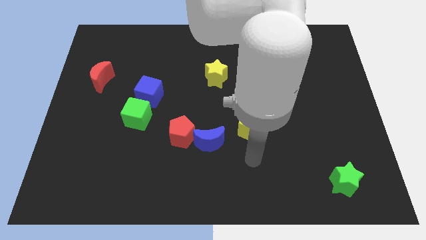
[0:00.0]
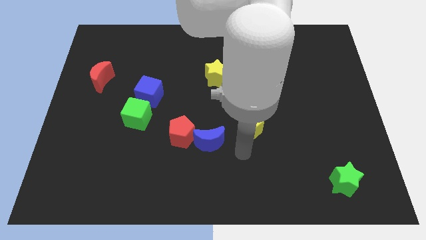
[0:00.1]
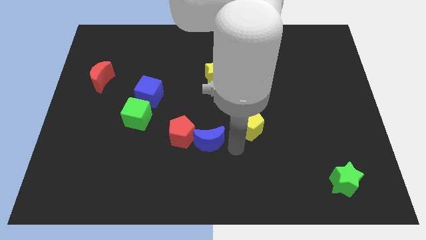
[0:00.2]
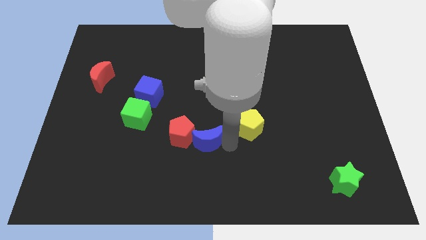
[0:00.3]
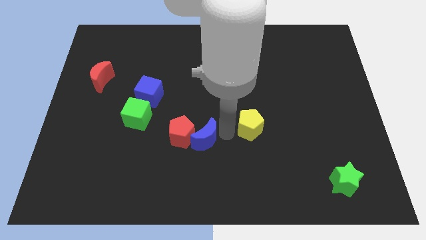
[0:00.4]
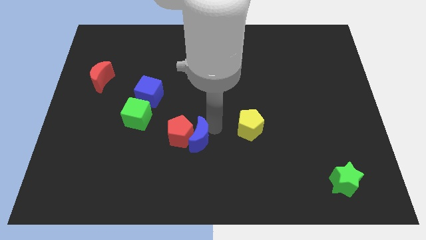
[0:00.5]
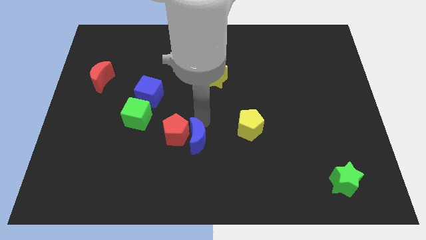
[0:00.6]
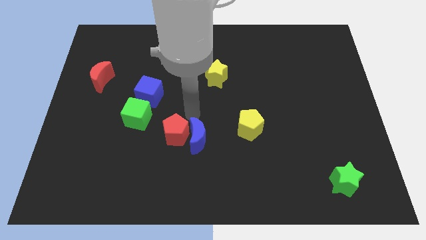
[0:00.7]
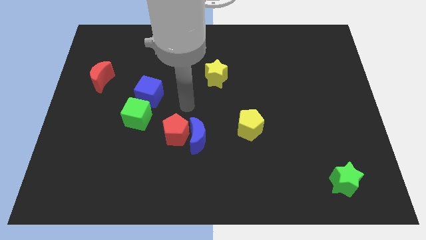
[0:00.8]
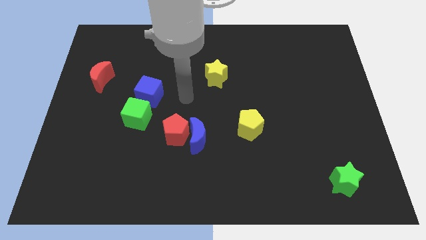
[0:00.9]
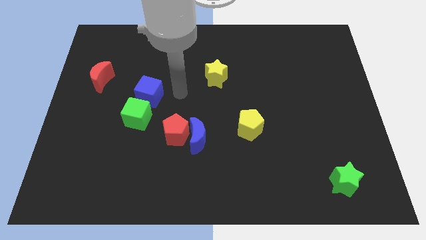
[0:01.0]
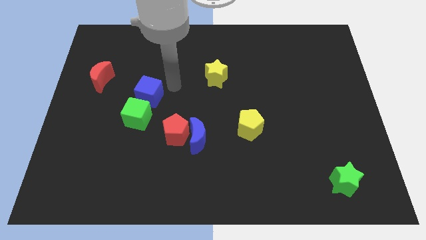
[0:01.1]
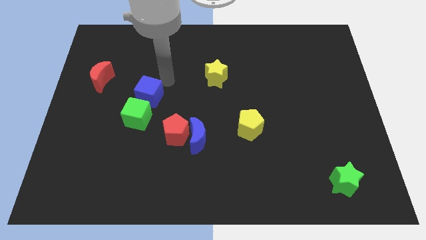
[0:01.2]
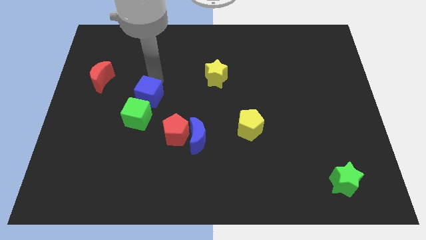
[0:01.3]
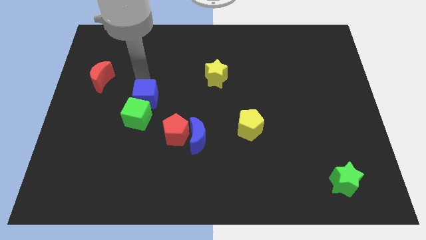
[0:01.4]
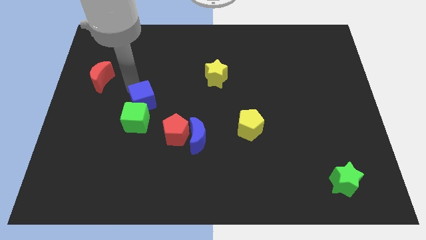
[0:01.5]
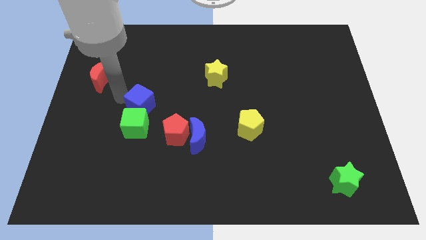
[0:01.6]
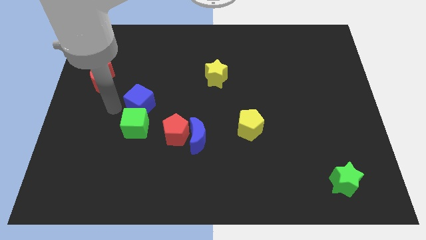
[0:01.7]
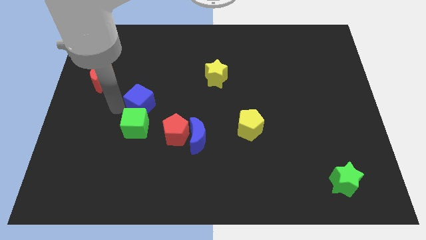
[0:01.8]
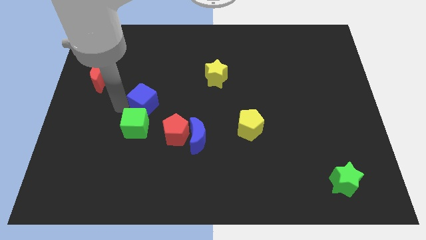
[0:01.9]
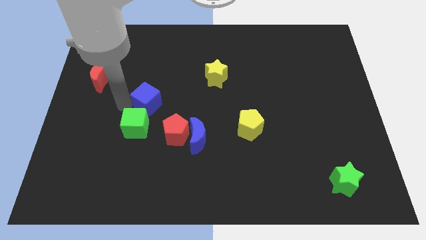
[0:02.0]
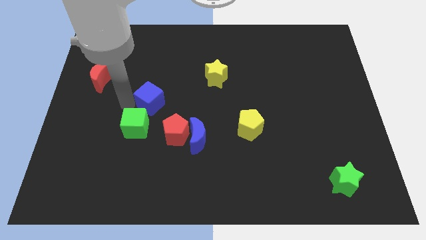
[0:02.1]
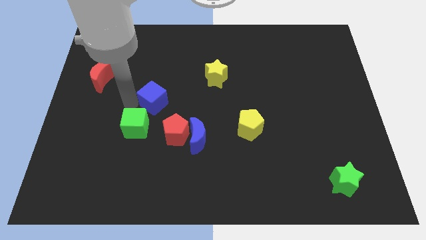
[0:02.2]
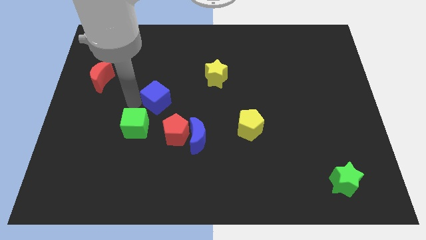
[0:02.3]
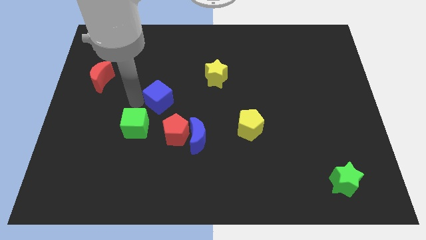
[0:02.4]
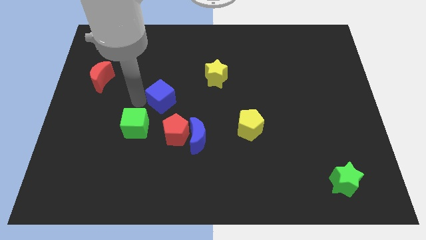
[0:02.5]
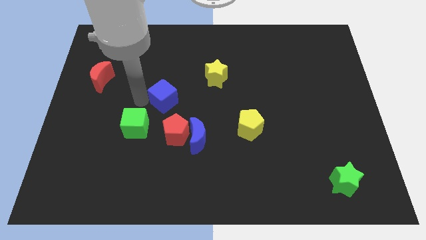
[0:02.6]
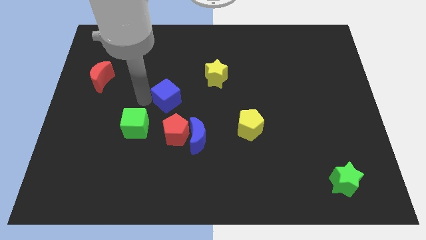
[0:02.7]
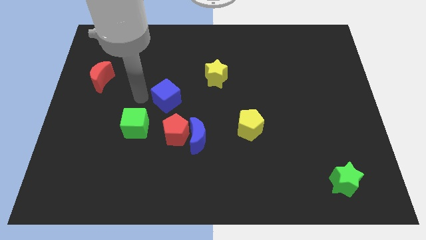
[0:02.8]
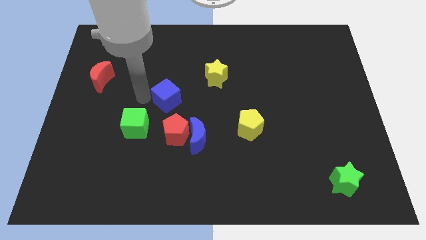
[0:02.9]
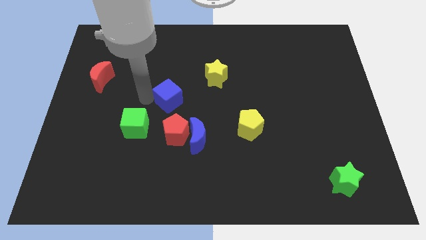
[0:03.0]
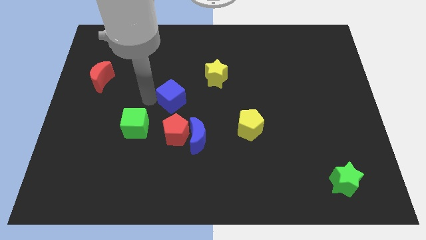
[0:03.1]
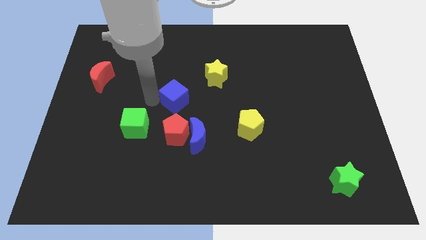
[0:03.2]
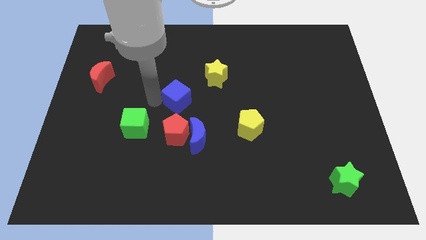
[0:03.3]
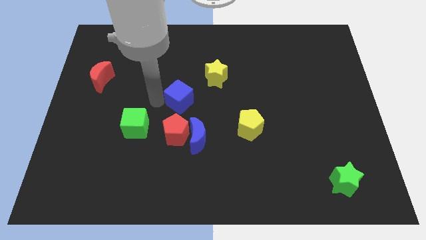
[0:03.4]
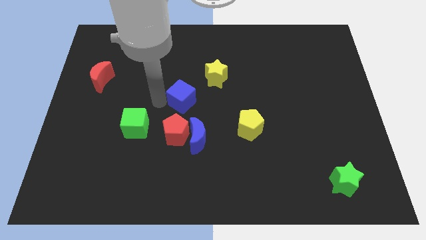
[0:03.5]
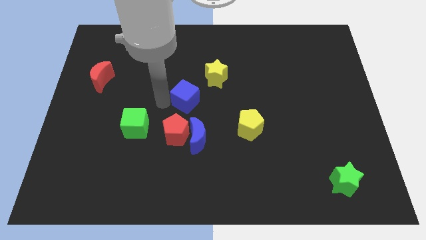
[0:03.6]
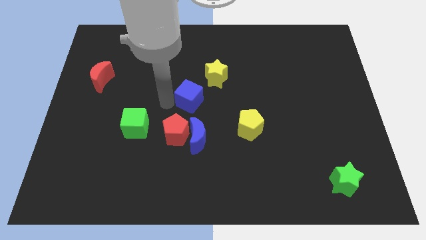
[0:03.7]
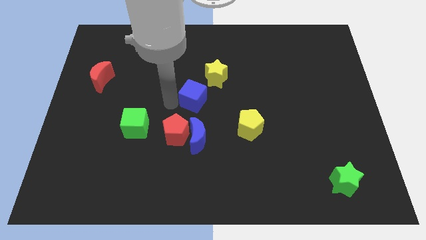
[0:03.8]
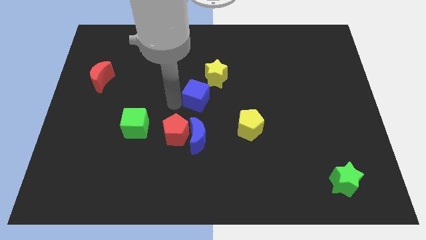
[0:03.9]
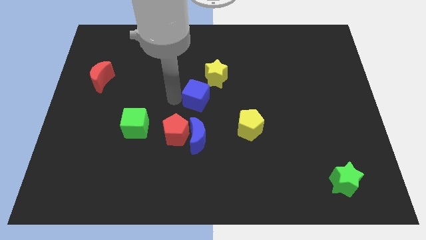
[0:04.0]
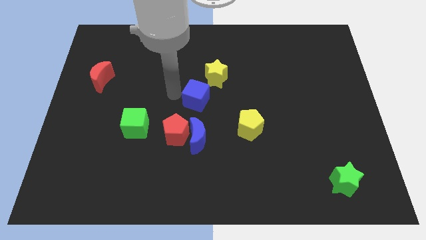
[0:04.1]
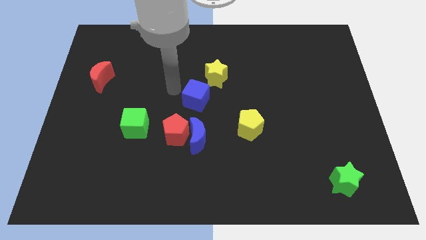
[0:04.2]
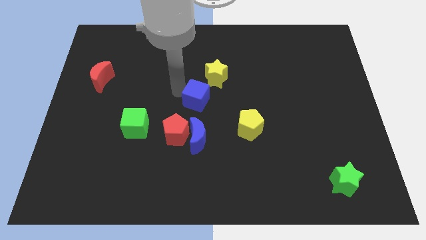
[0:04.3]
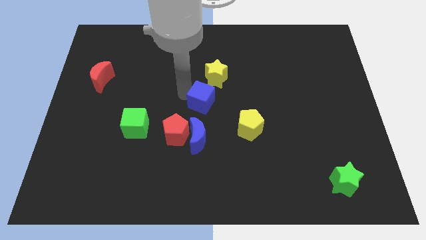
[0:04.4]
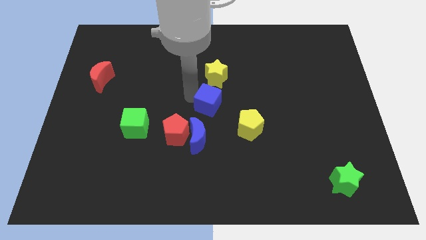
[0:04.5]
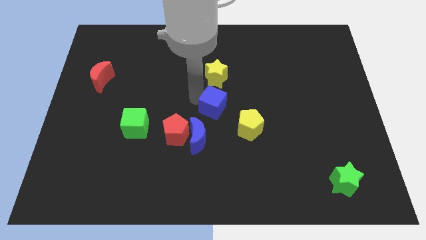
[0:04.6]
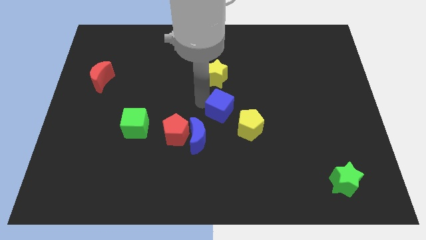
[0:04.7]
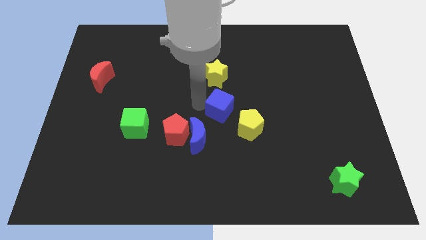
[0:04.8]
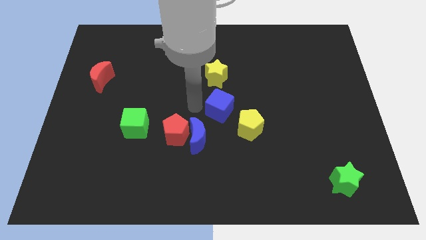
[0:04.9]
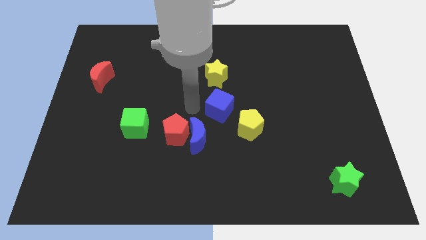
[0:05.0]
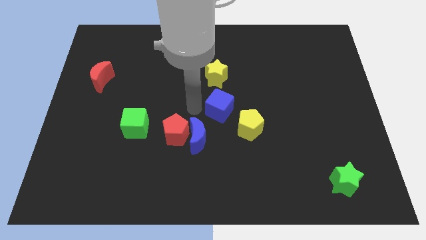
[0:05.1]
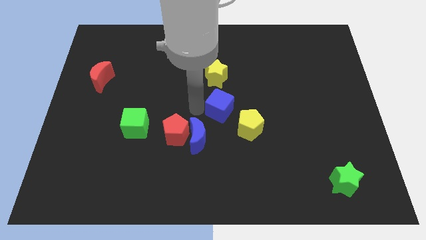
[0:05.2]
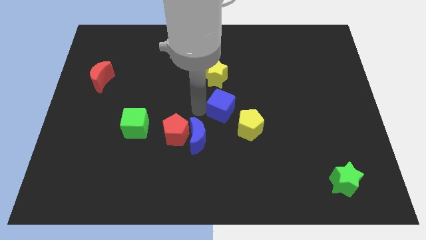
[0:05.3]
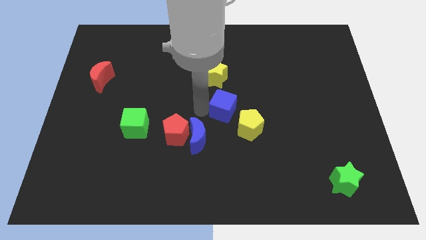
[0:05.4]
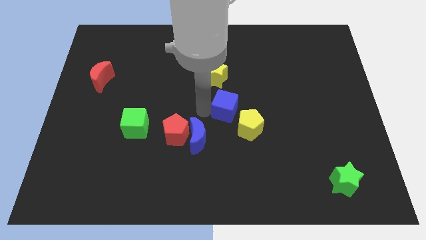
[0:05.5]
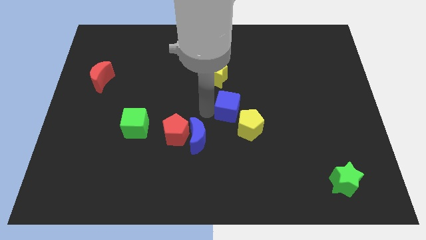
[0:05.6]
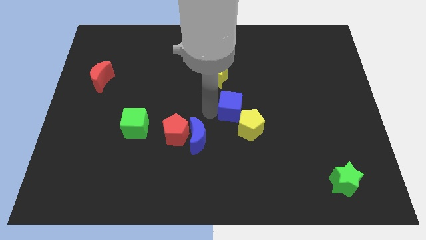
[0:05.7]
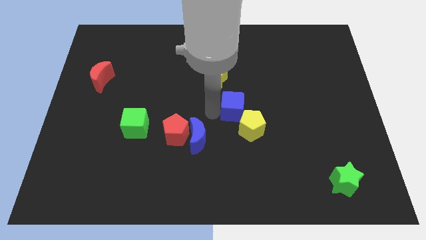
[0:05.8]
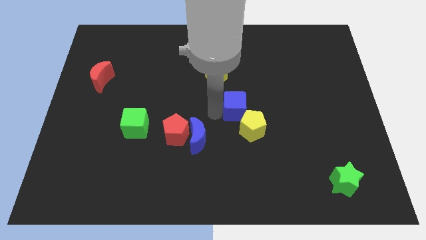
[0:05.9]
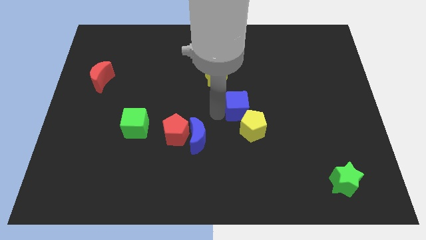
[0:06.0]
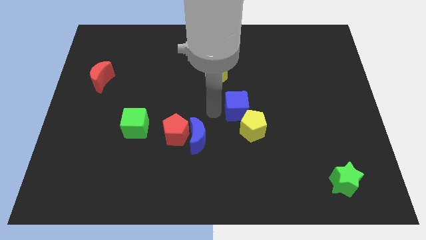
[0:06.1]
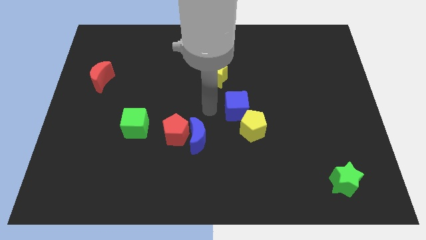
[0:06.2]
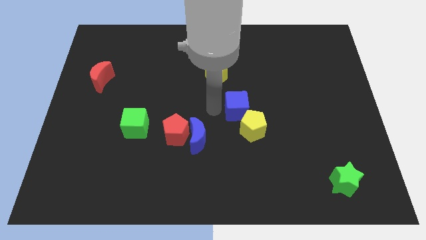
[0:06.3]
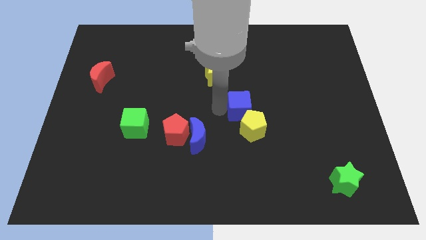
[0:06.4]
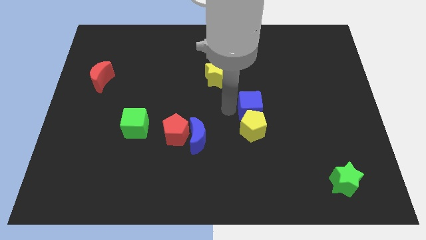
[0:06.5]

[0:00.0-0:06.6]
put the blue cube diagonally up and to the right of the yellow pentagon

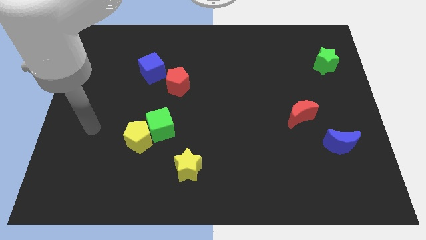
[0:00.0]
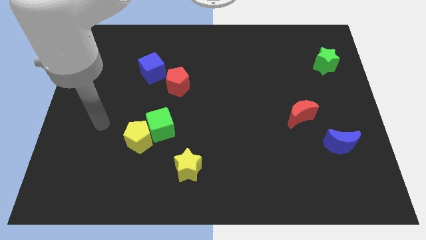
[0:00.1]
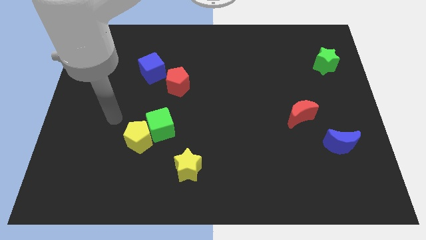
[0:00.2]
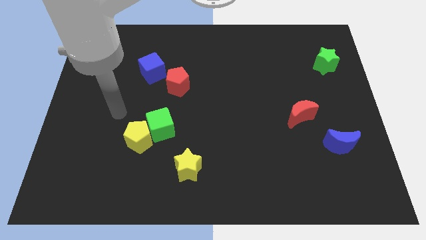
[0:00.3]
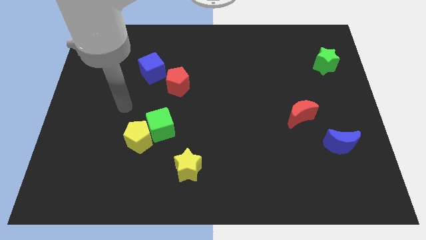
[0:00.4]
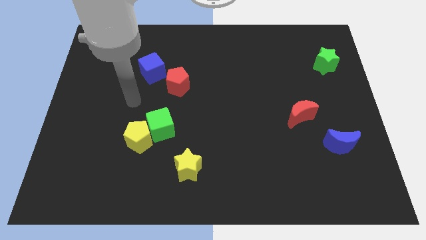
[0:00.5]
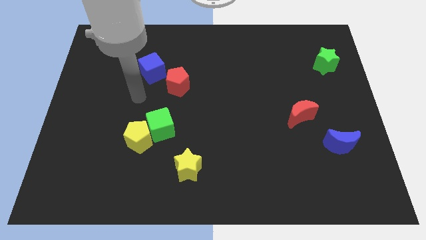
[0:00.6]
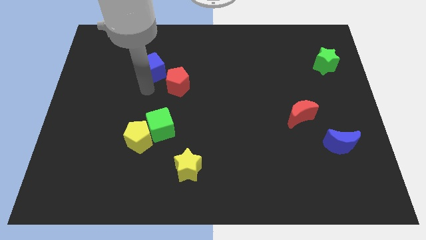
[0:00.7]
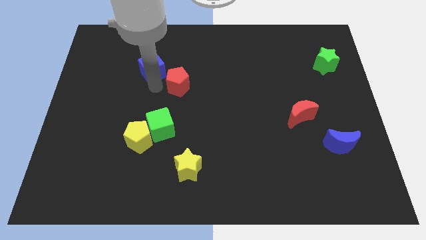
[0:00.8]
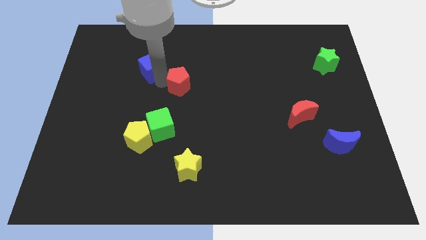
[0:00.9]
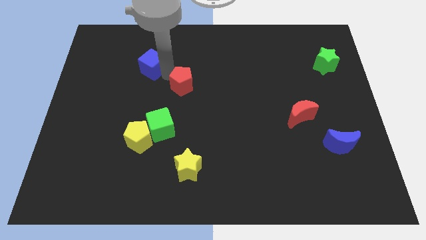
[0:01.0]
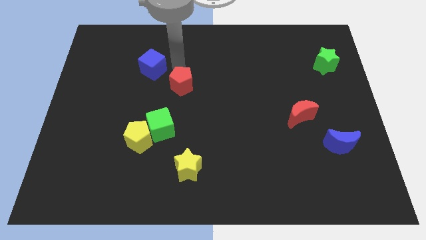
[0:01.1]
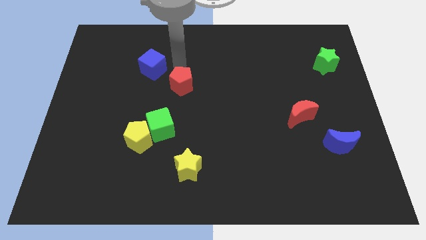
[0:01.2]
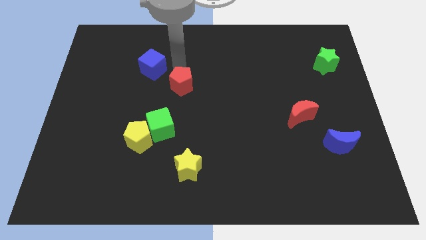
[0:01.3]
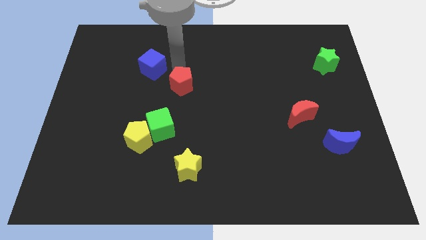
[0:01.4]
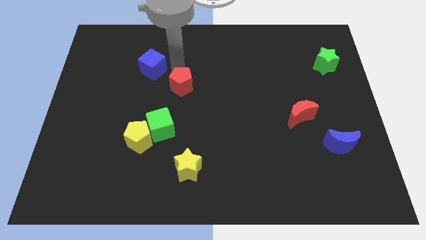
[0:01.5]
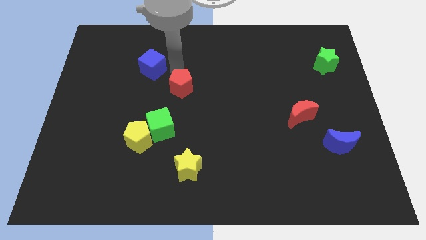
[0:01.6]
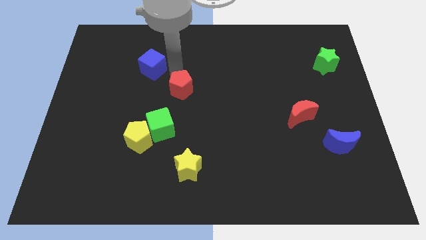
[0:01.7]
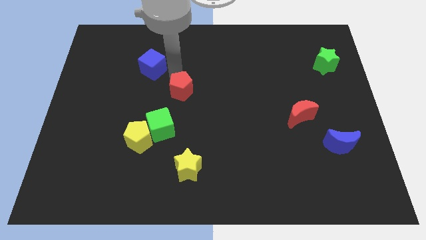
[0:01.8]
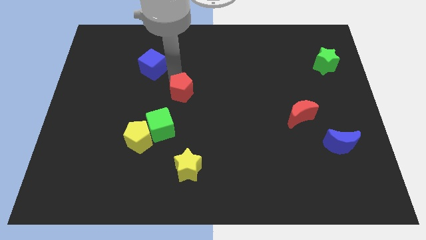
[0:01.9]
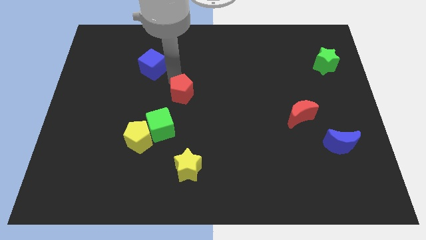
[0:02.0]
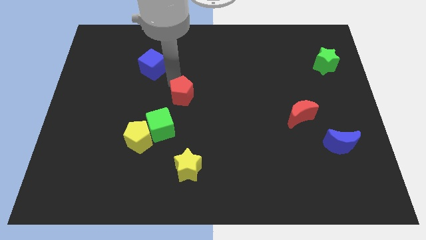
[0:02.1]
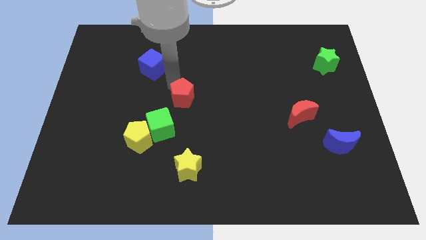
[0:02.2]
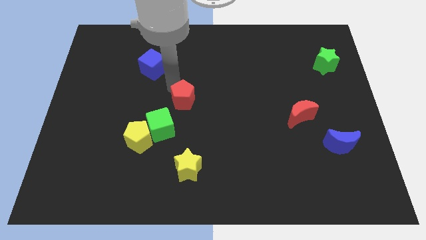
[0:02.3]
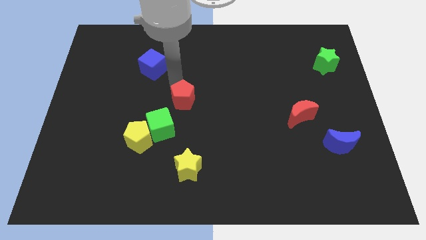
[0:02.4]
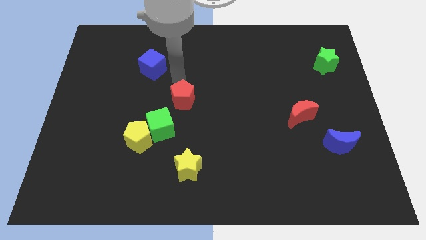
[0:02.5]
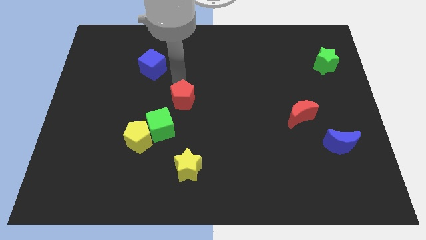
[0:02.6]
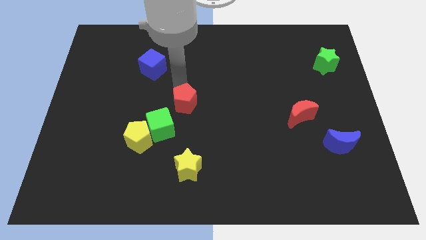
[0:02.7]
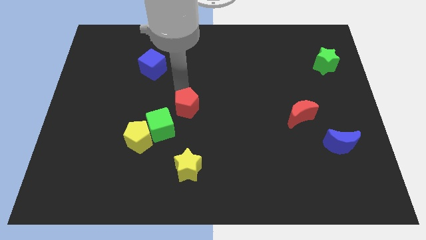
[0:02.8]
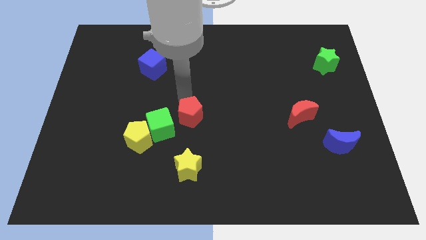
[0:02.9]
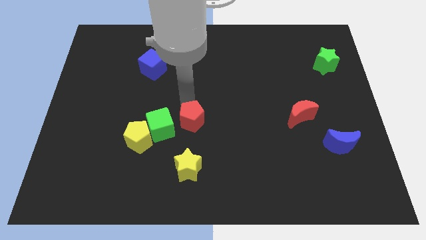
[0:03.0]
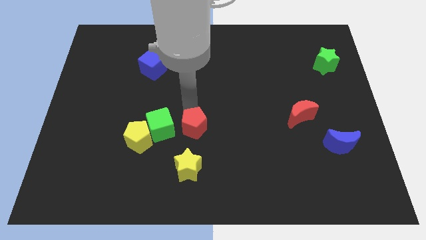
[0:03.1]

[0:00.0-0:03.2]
move the red pentagon just right of the yellow pentagon
